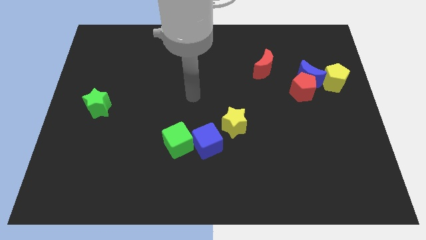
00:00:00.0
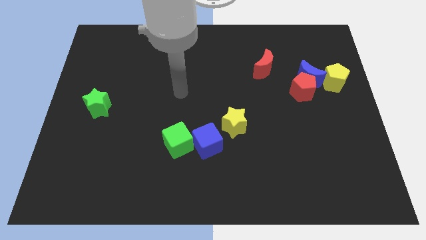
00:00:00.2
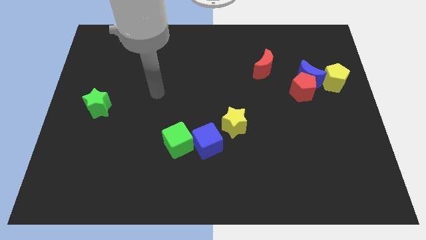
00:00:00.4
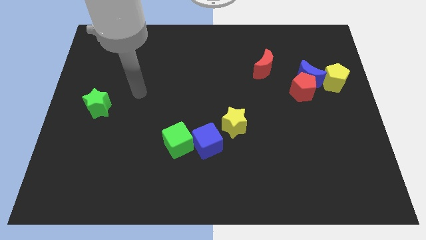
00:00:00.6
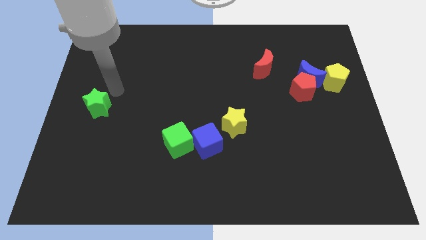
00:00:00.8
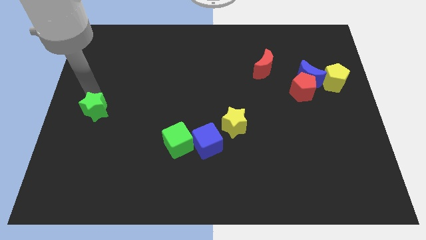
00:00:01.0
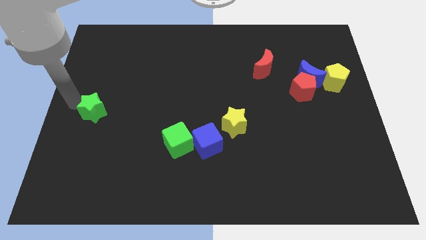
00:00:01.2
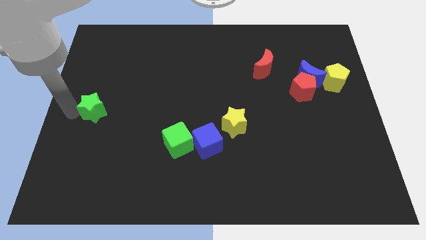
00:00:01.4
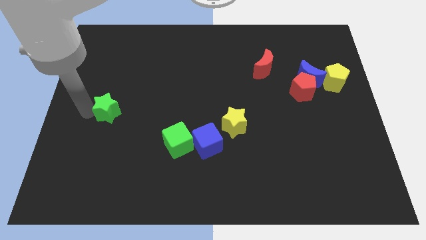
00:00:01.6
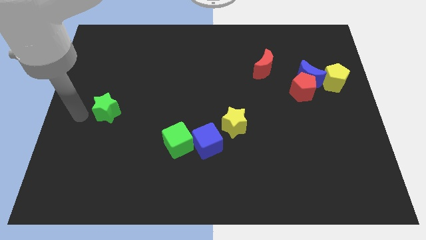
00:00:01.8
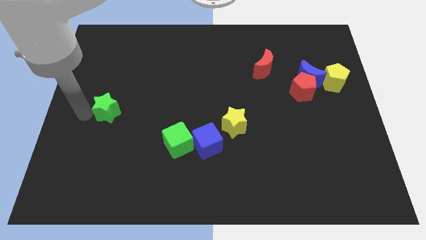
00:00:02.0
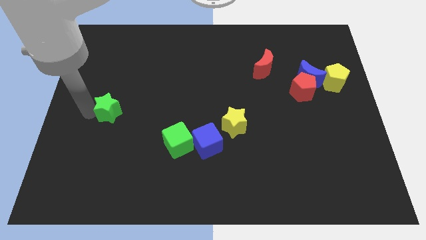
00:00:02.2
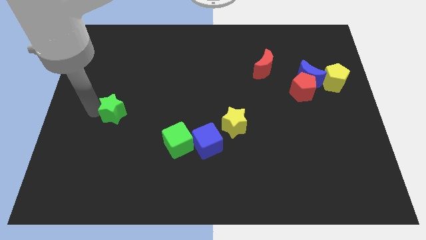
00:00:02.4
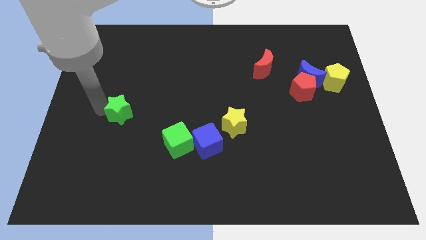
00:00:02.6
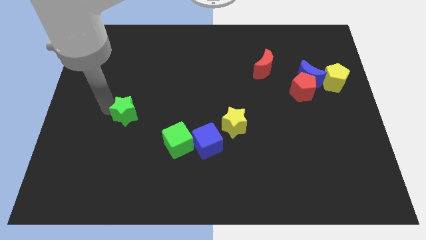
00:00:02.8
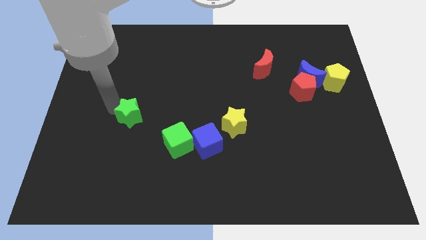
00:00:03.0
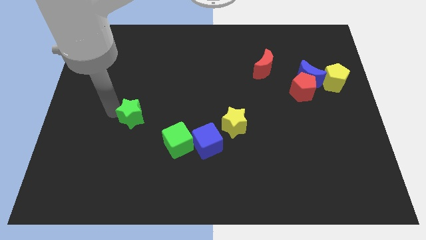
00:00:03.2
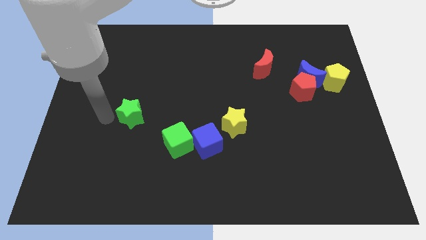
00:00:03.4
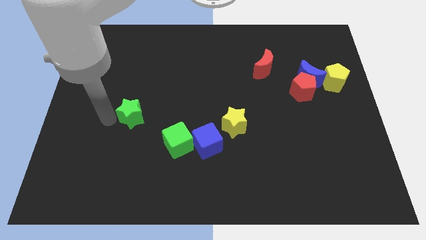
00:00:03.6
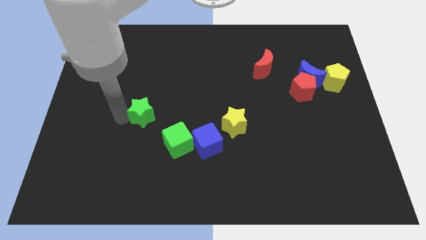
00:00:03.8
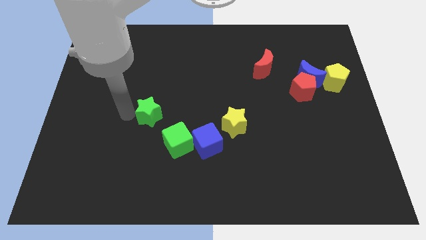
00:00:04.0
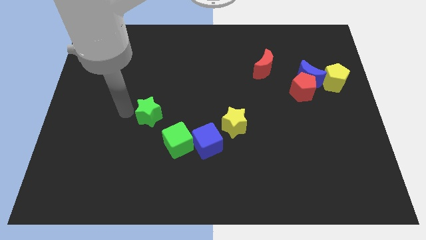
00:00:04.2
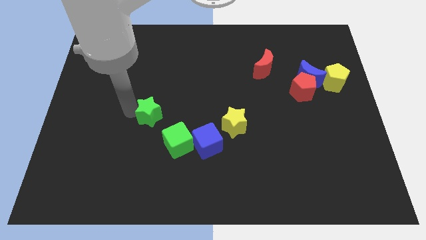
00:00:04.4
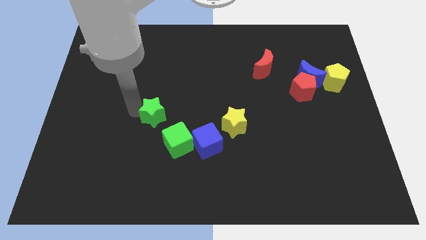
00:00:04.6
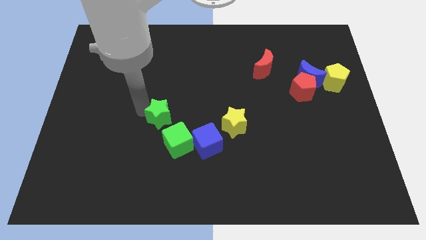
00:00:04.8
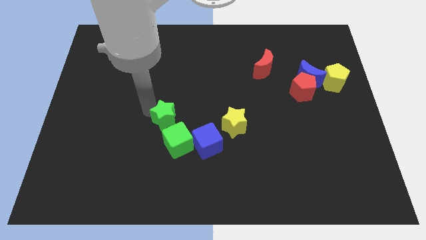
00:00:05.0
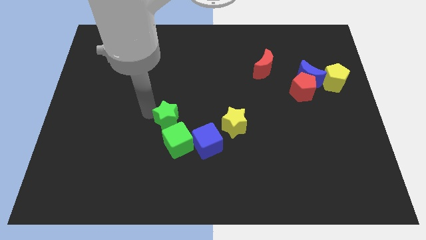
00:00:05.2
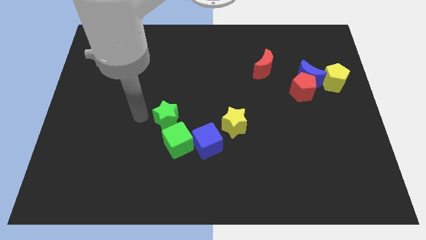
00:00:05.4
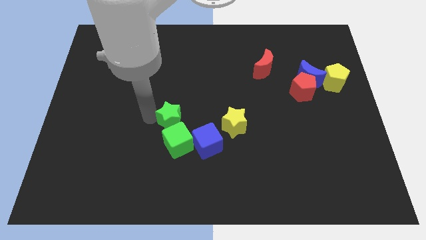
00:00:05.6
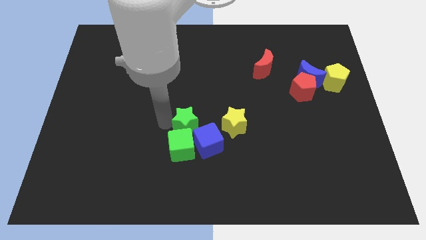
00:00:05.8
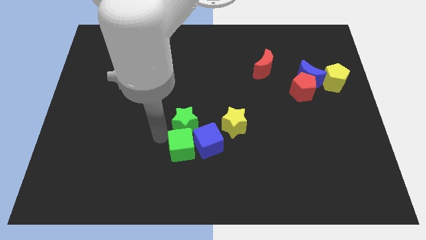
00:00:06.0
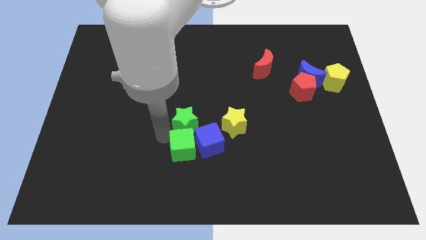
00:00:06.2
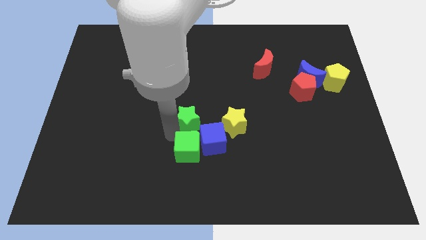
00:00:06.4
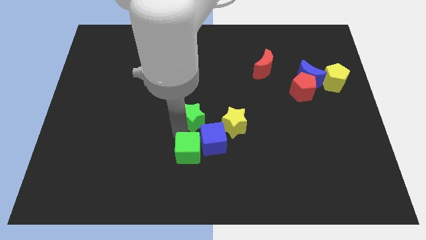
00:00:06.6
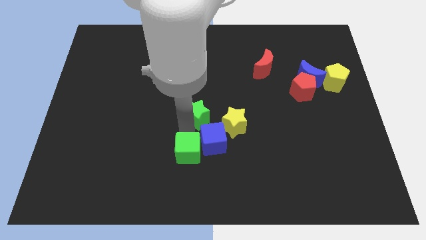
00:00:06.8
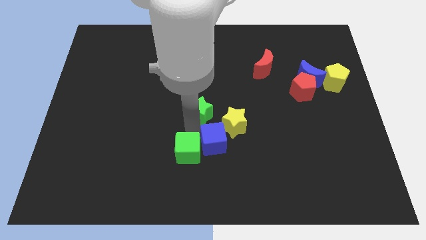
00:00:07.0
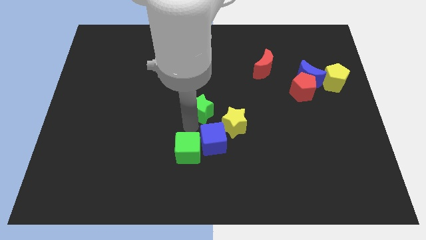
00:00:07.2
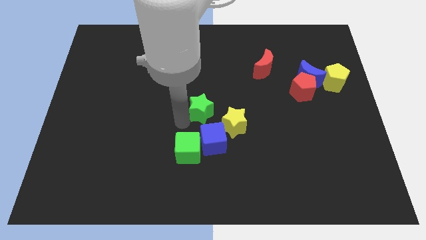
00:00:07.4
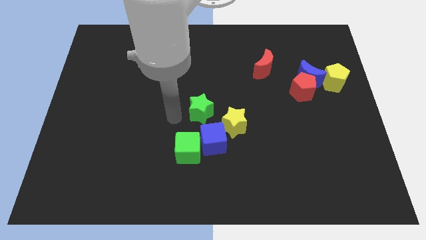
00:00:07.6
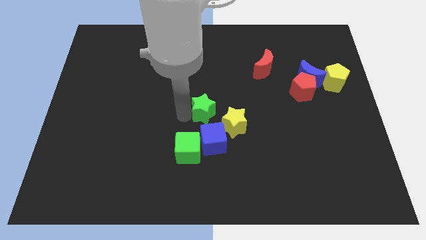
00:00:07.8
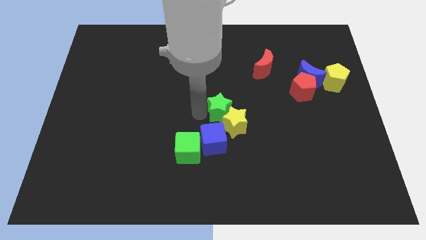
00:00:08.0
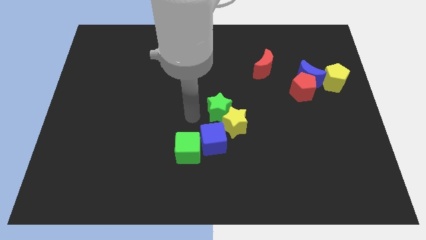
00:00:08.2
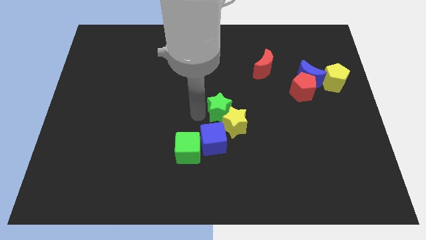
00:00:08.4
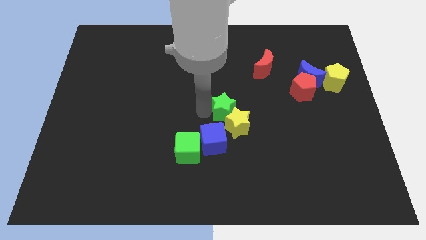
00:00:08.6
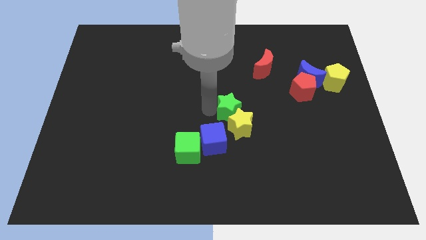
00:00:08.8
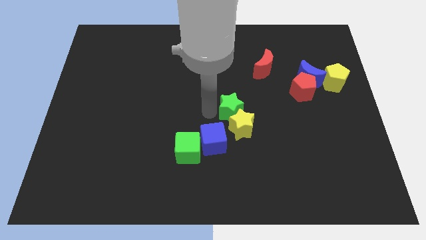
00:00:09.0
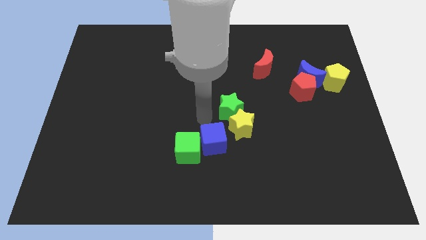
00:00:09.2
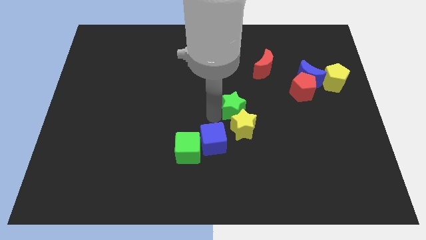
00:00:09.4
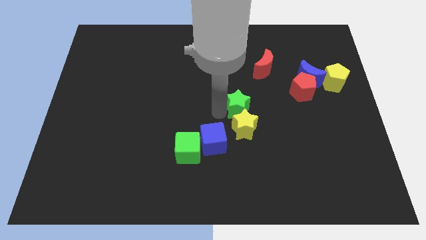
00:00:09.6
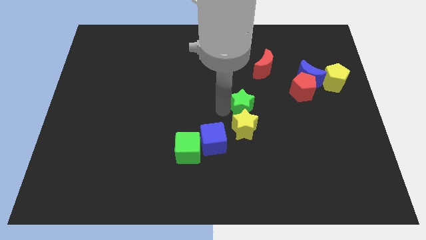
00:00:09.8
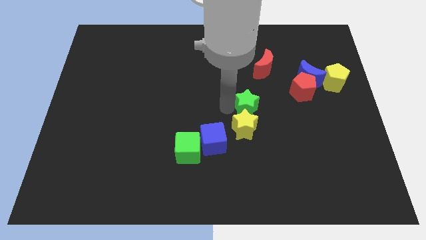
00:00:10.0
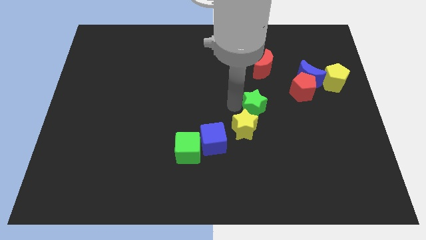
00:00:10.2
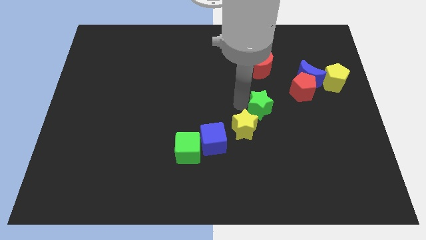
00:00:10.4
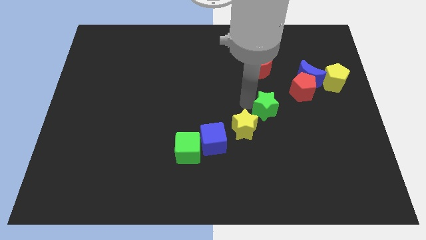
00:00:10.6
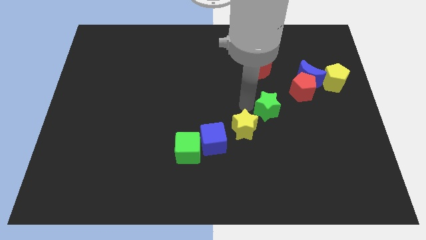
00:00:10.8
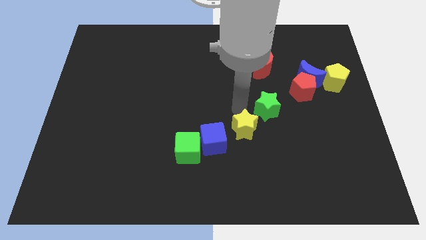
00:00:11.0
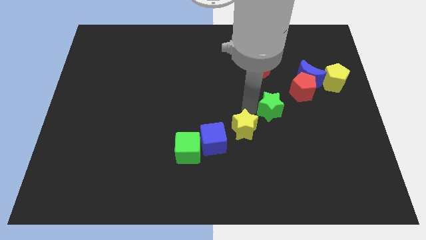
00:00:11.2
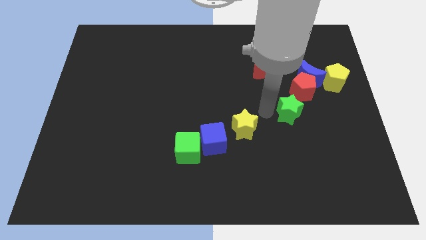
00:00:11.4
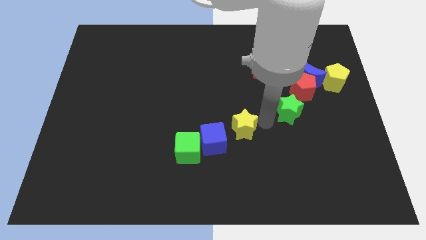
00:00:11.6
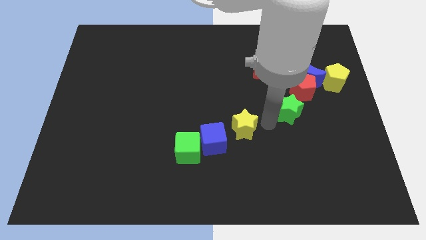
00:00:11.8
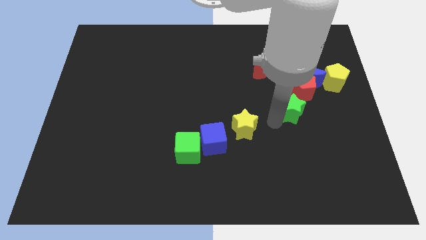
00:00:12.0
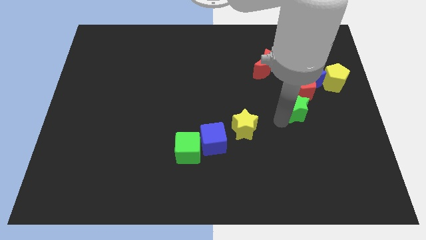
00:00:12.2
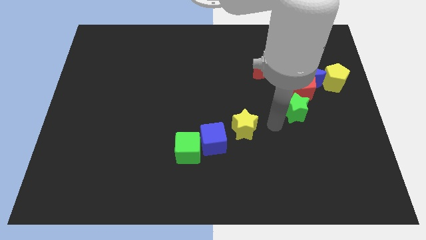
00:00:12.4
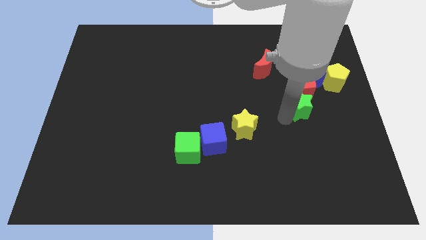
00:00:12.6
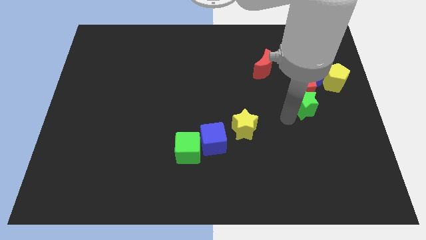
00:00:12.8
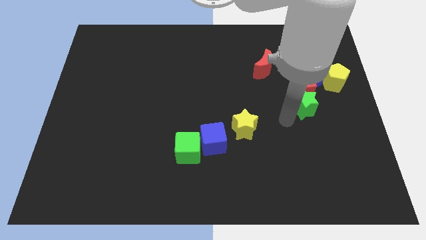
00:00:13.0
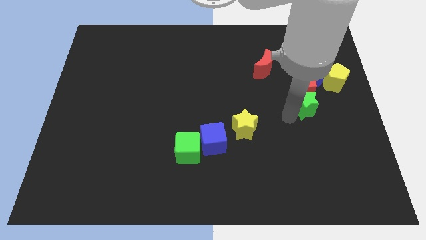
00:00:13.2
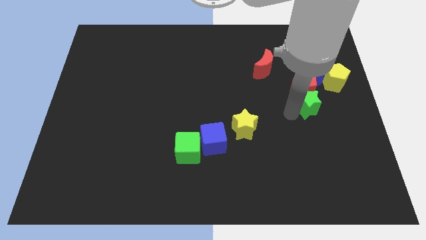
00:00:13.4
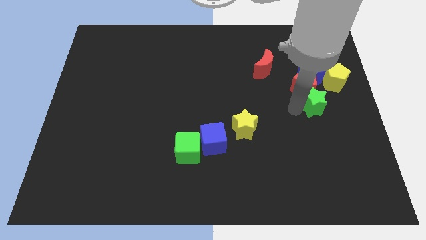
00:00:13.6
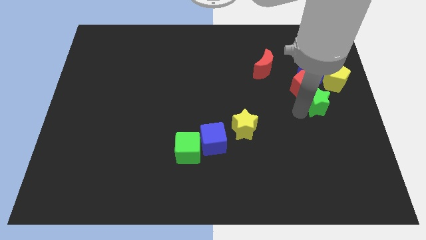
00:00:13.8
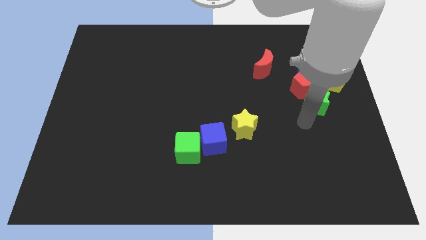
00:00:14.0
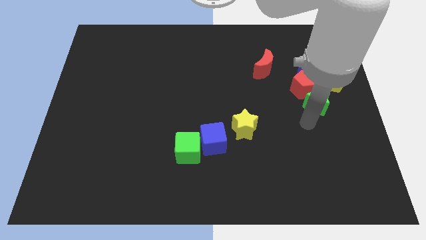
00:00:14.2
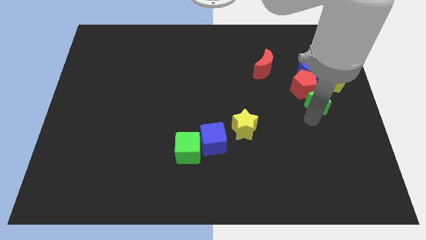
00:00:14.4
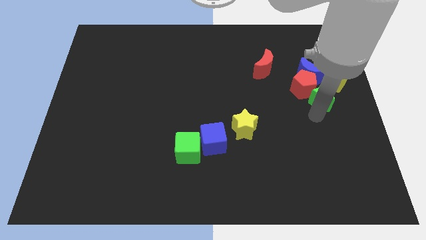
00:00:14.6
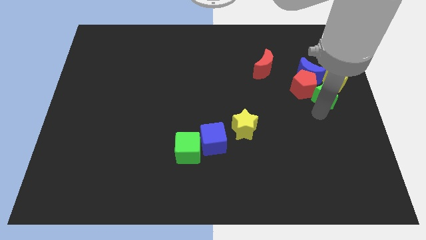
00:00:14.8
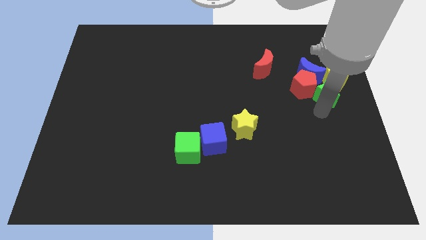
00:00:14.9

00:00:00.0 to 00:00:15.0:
push the green star next to the yellow pentagon
